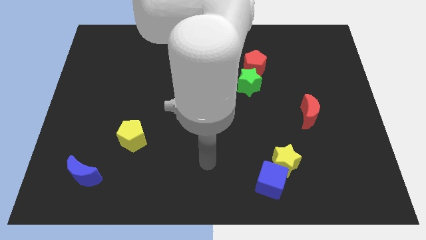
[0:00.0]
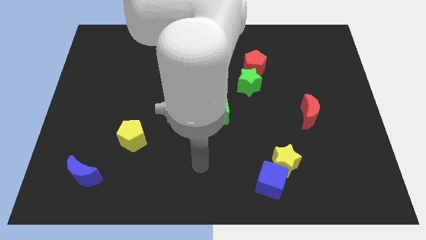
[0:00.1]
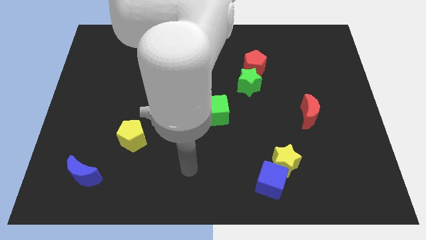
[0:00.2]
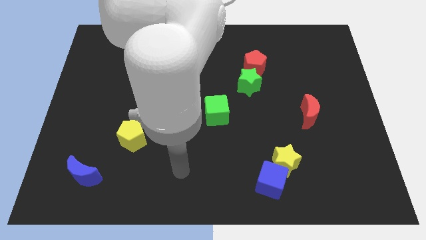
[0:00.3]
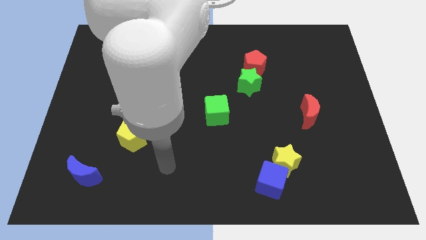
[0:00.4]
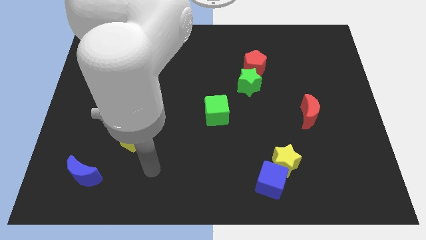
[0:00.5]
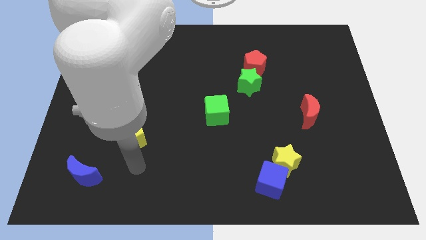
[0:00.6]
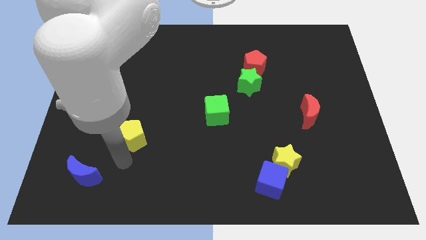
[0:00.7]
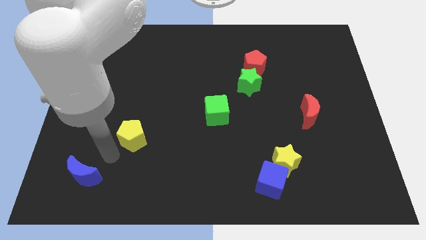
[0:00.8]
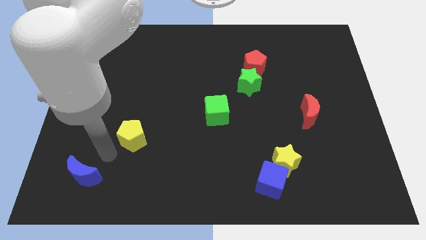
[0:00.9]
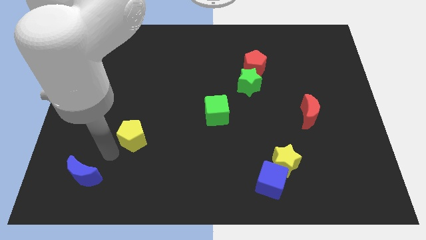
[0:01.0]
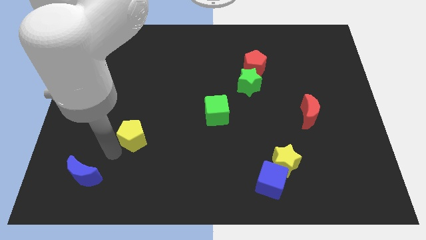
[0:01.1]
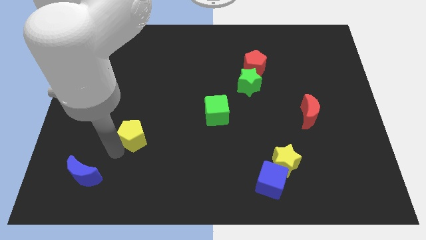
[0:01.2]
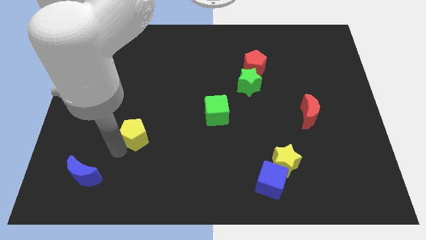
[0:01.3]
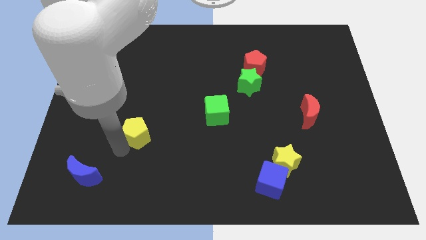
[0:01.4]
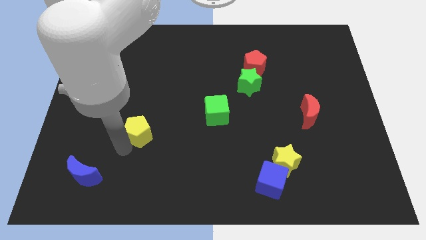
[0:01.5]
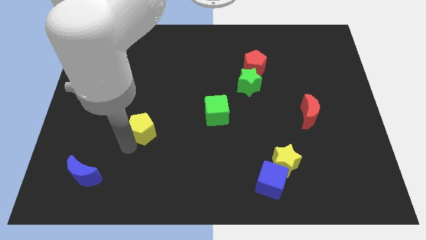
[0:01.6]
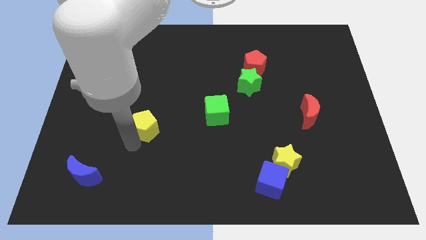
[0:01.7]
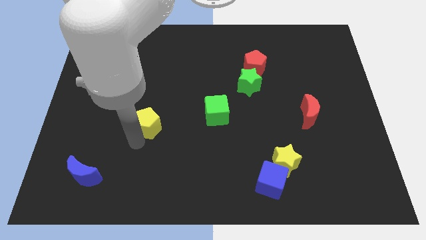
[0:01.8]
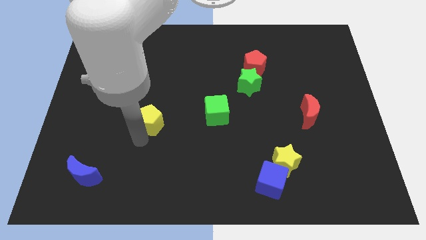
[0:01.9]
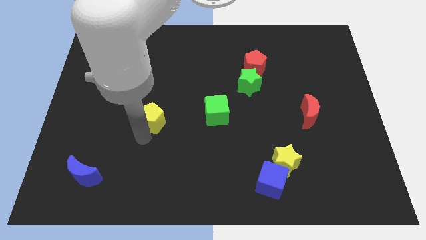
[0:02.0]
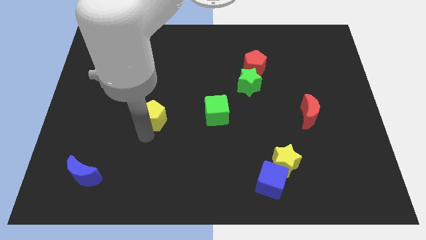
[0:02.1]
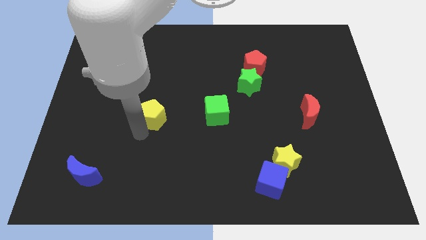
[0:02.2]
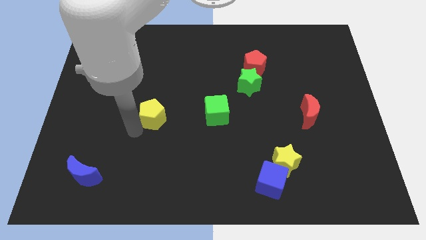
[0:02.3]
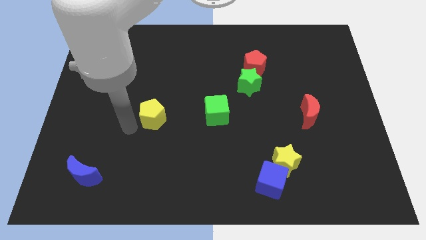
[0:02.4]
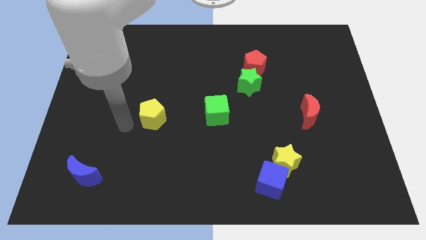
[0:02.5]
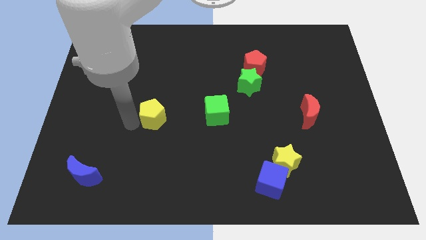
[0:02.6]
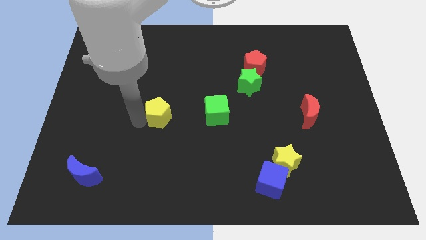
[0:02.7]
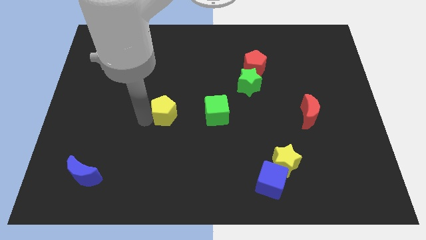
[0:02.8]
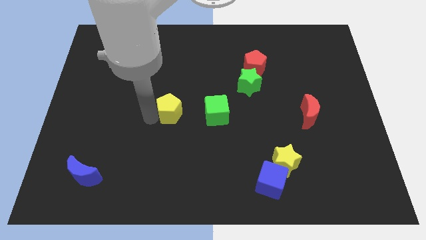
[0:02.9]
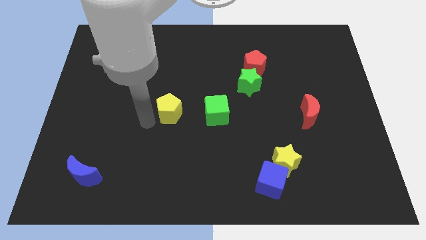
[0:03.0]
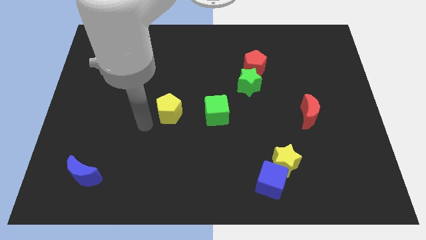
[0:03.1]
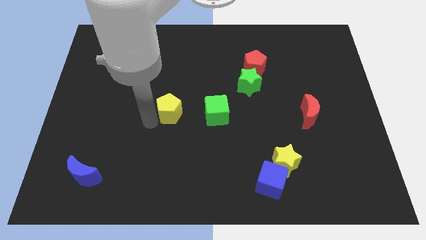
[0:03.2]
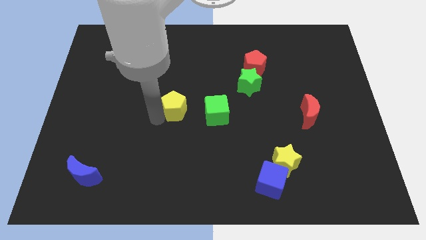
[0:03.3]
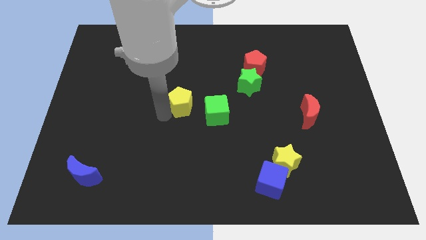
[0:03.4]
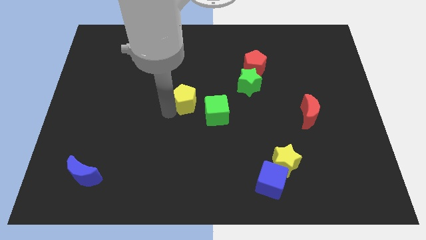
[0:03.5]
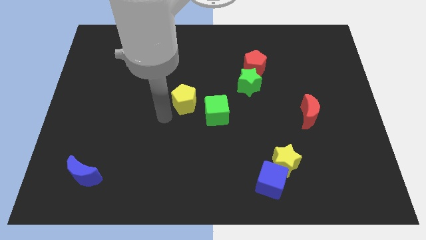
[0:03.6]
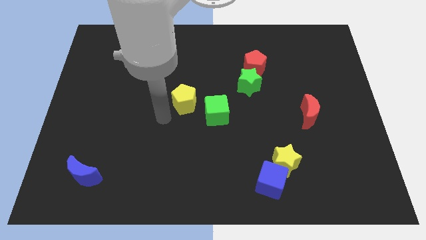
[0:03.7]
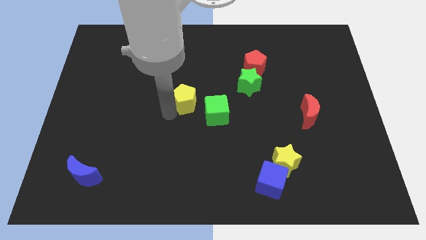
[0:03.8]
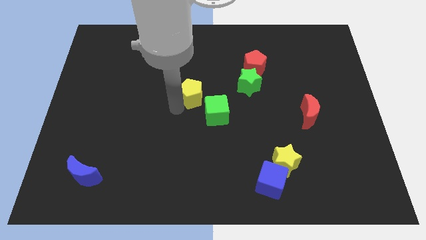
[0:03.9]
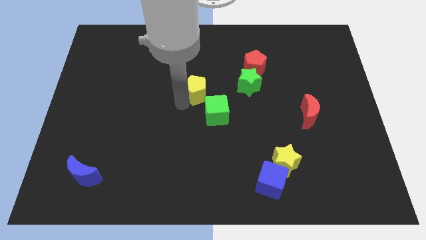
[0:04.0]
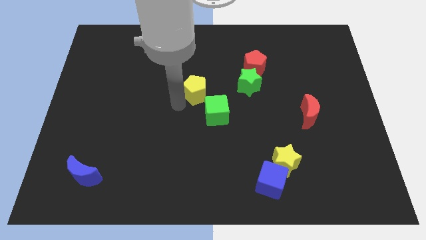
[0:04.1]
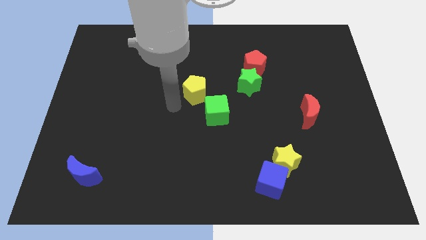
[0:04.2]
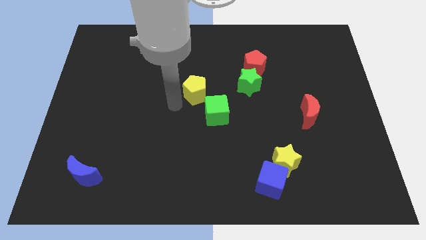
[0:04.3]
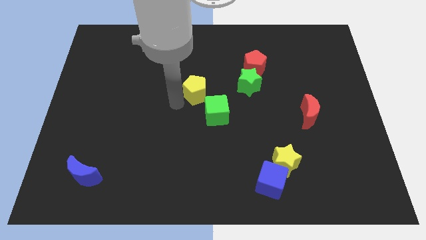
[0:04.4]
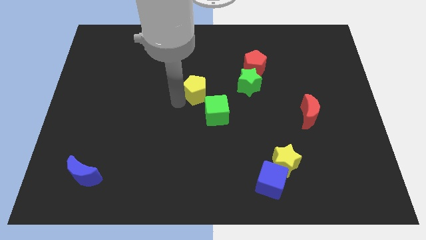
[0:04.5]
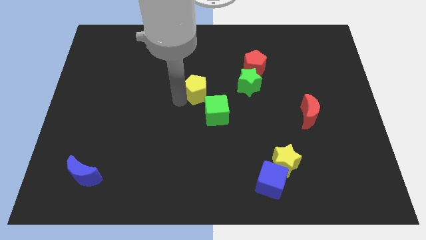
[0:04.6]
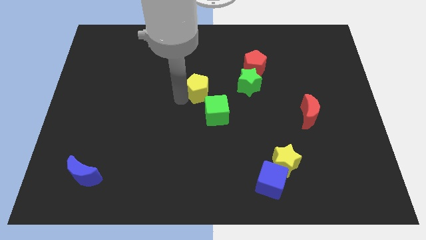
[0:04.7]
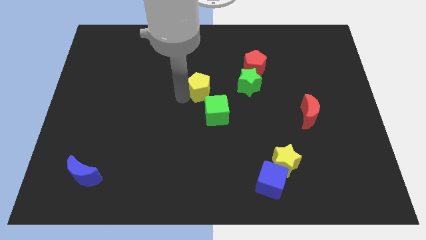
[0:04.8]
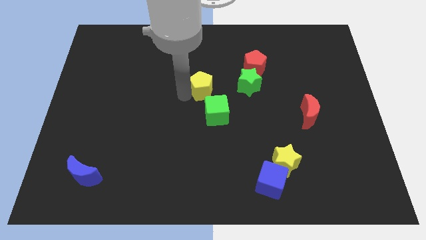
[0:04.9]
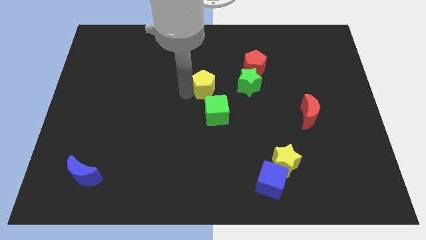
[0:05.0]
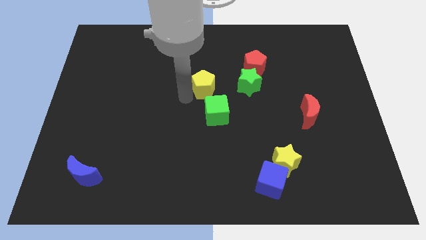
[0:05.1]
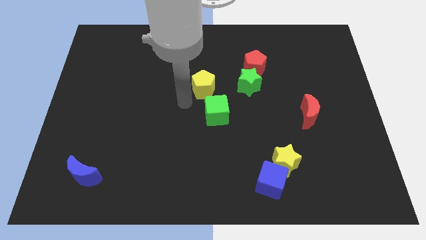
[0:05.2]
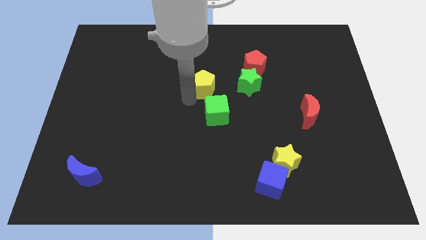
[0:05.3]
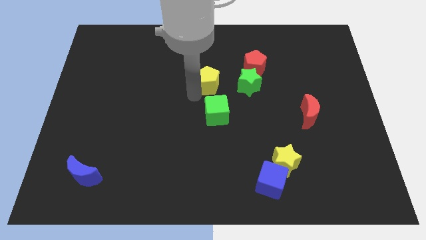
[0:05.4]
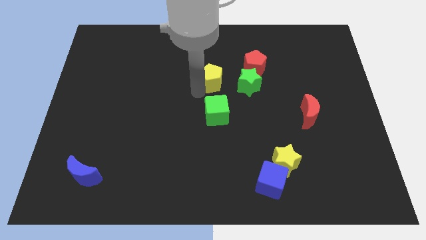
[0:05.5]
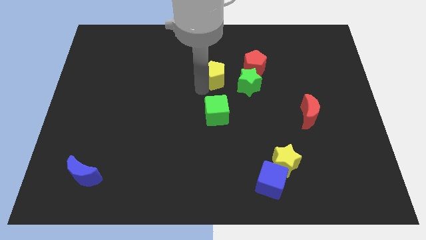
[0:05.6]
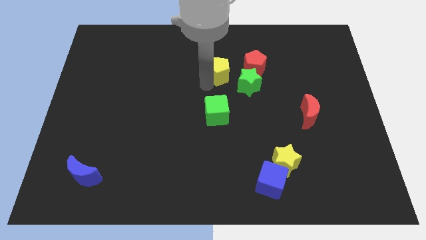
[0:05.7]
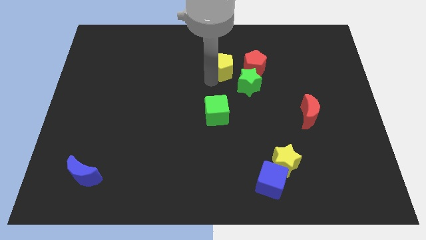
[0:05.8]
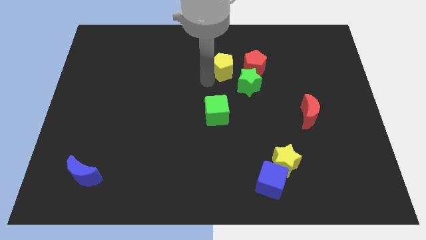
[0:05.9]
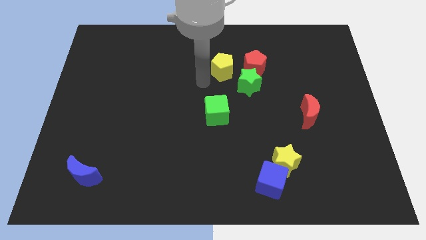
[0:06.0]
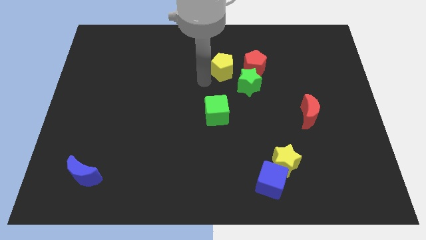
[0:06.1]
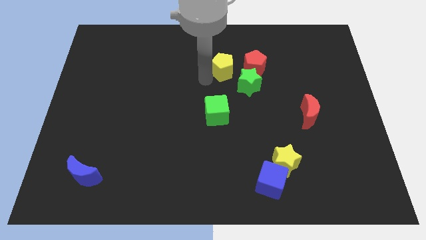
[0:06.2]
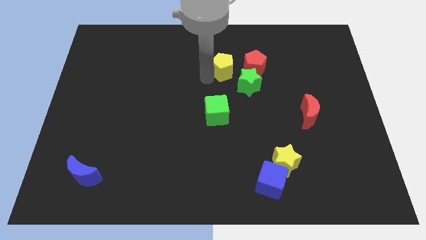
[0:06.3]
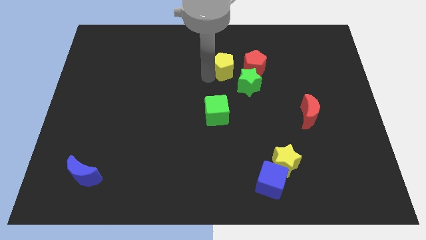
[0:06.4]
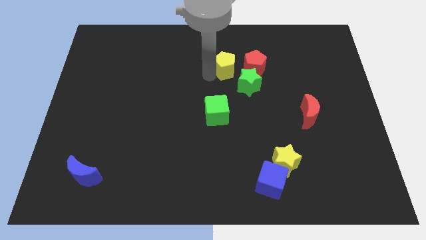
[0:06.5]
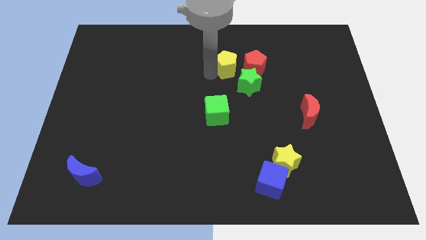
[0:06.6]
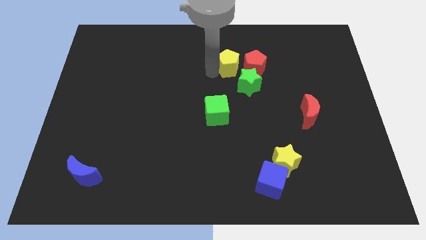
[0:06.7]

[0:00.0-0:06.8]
push the yellow pentagon above the green star
